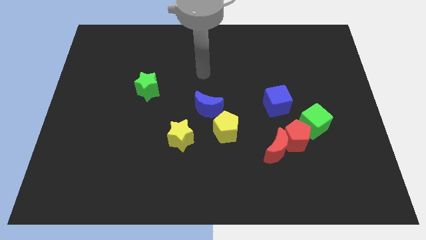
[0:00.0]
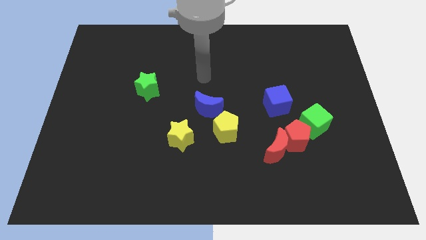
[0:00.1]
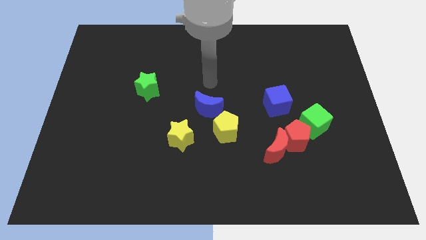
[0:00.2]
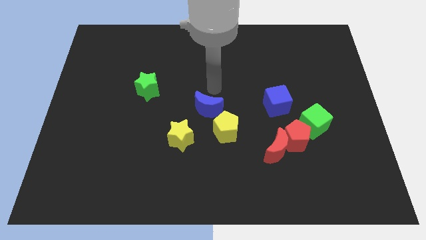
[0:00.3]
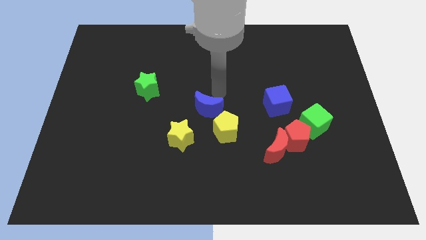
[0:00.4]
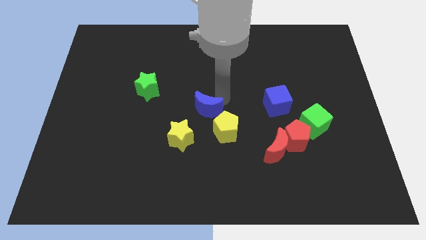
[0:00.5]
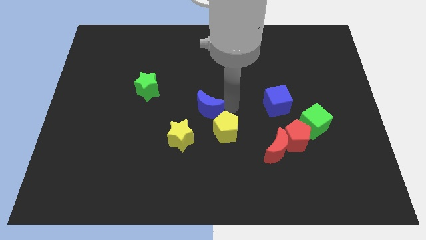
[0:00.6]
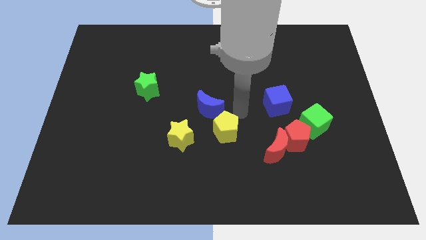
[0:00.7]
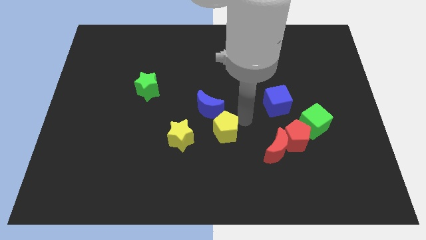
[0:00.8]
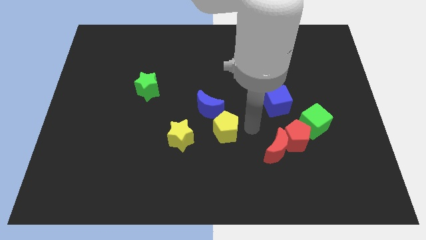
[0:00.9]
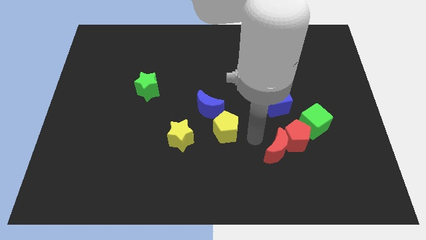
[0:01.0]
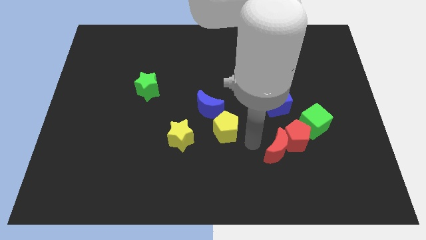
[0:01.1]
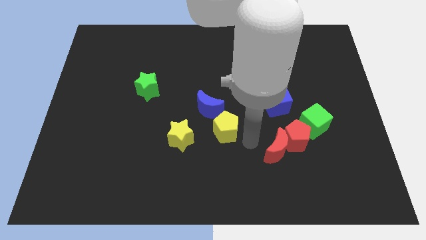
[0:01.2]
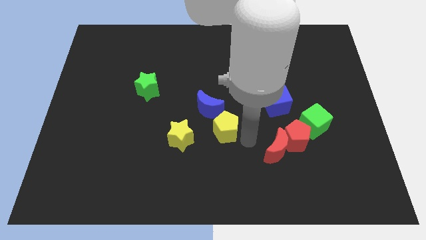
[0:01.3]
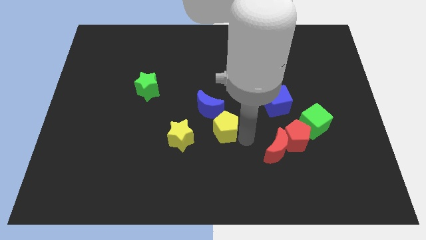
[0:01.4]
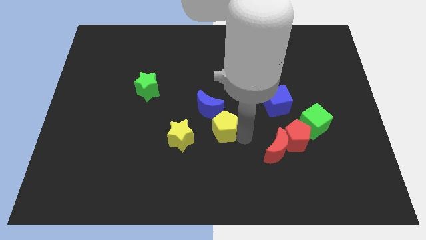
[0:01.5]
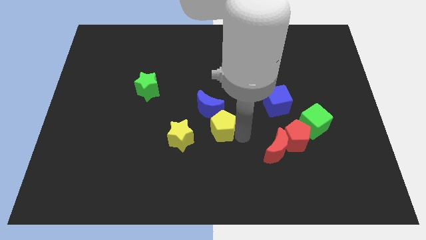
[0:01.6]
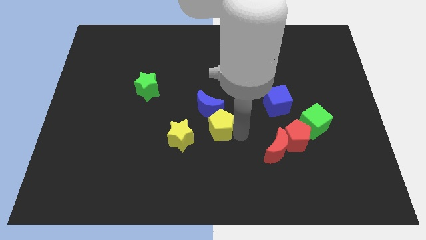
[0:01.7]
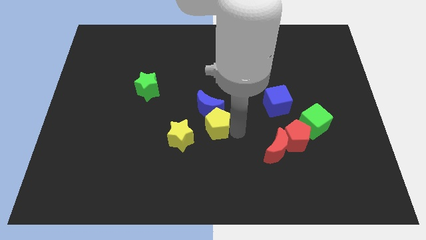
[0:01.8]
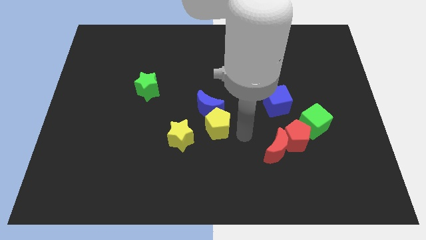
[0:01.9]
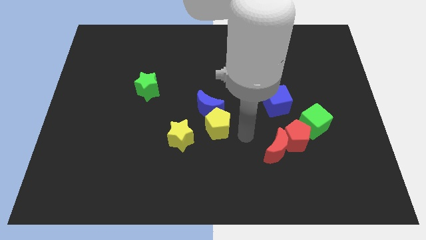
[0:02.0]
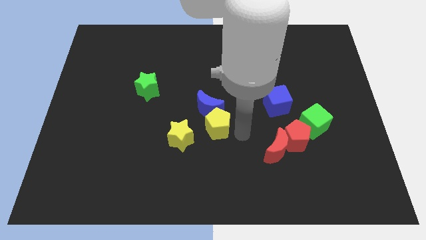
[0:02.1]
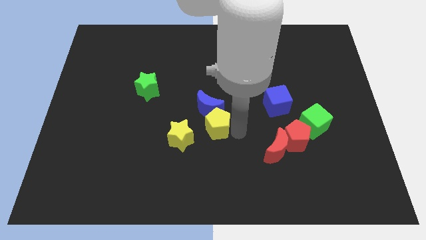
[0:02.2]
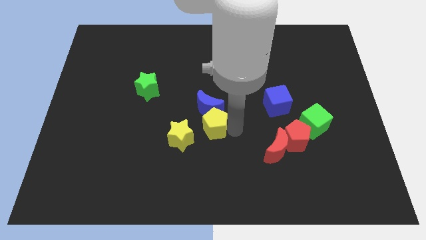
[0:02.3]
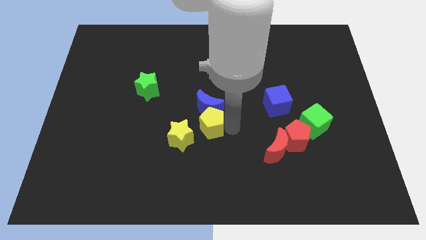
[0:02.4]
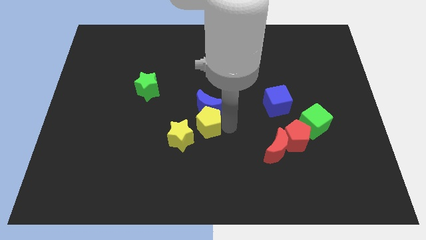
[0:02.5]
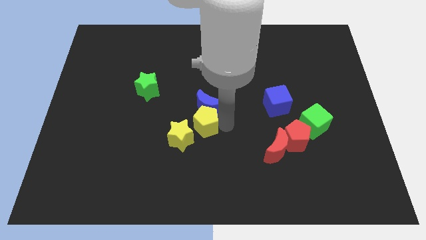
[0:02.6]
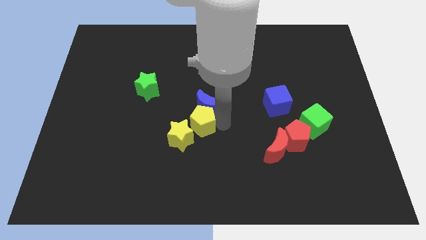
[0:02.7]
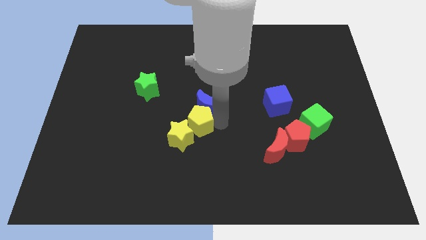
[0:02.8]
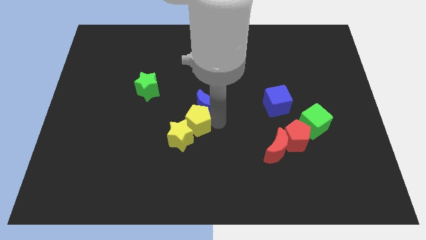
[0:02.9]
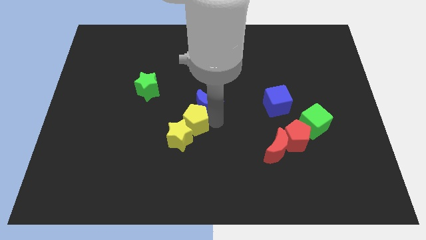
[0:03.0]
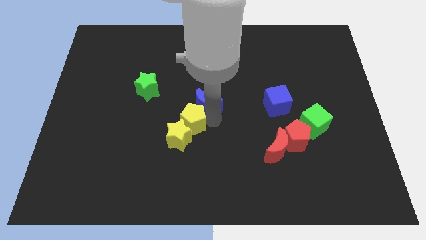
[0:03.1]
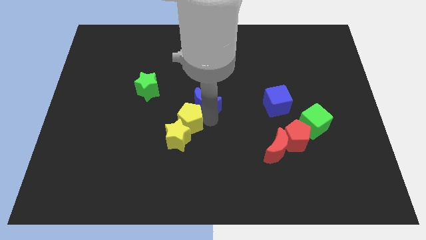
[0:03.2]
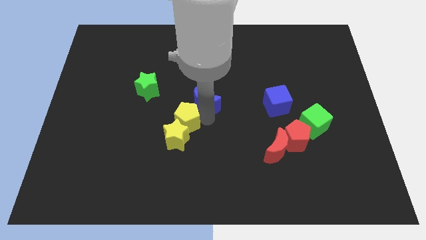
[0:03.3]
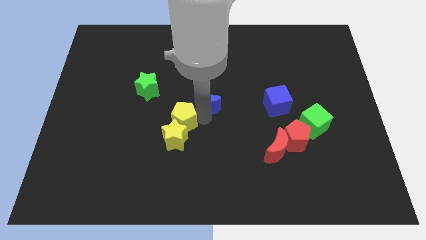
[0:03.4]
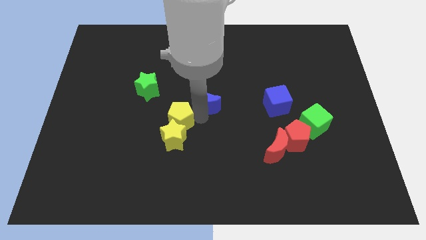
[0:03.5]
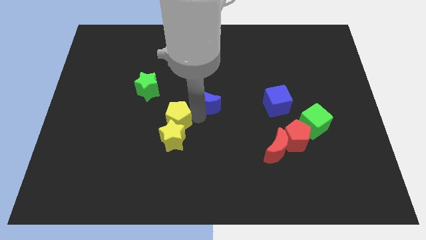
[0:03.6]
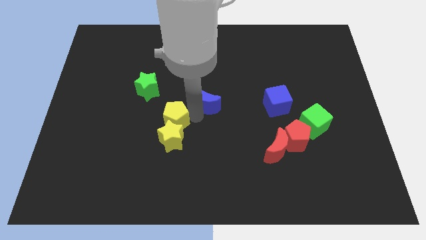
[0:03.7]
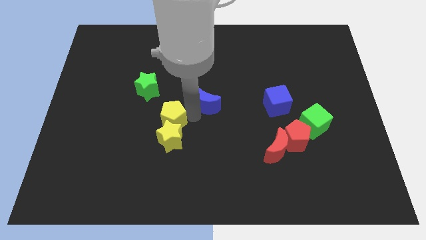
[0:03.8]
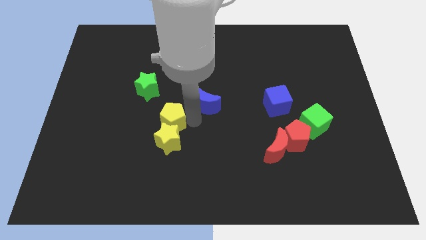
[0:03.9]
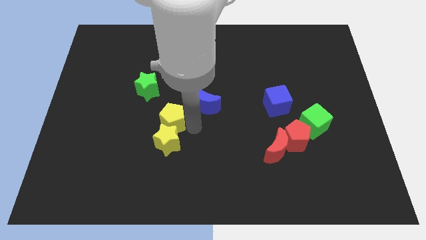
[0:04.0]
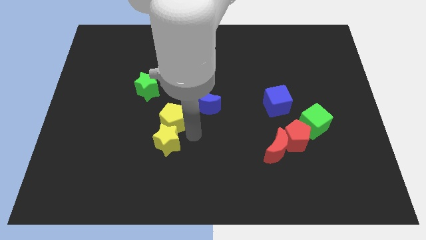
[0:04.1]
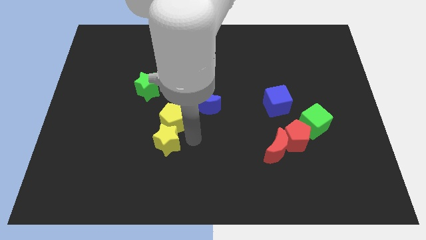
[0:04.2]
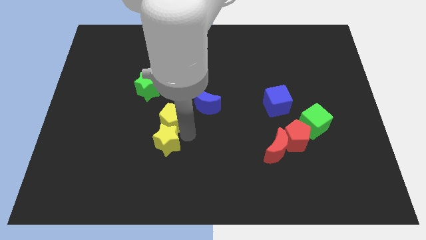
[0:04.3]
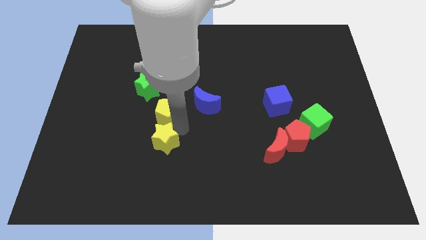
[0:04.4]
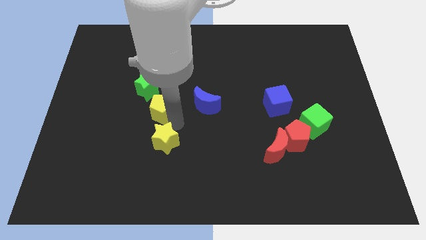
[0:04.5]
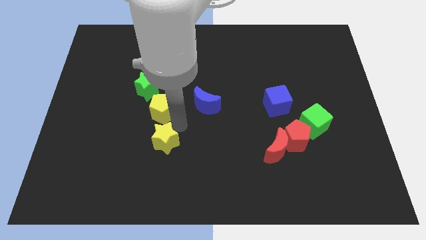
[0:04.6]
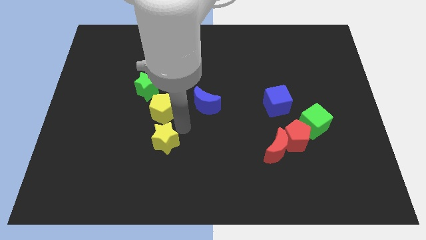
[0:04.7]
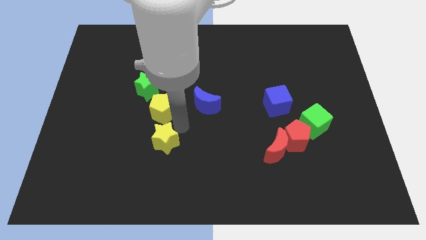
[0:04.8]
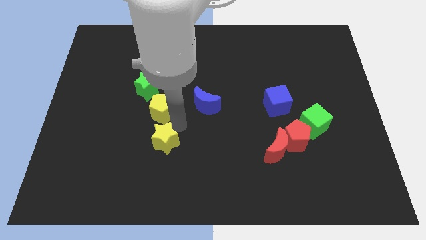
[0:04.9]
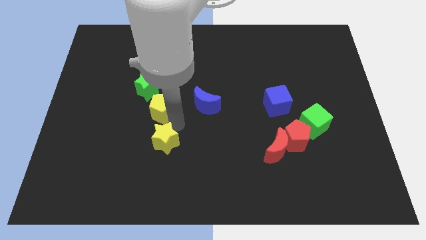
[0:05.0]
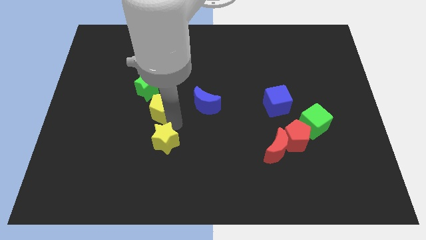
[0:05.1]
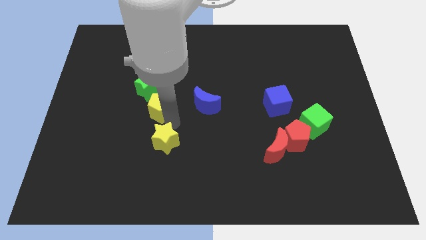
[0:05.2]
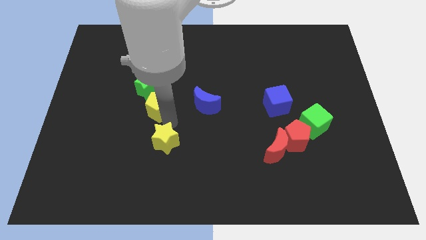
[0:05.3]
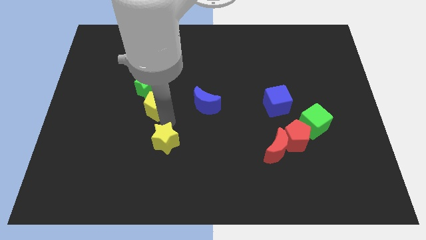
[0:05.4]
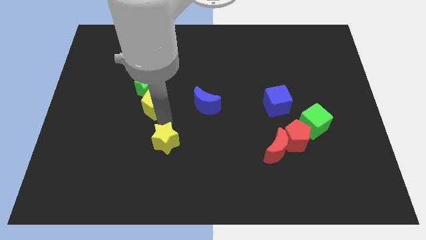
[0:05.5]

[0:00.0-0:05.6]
move the yellow pentagon towards the green star

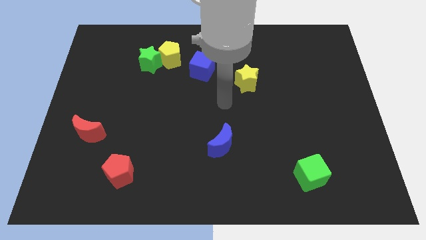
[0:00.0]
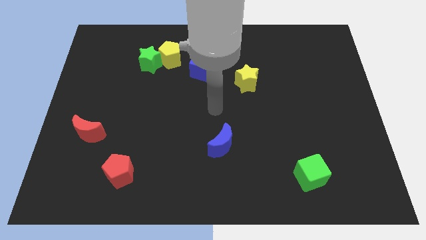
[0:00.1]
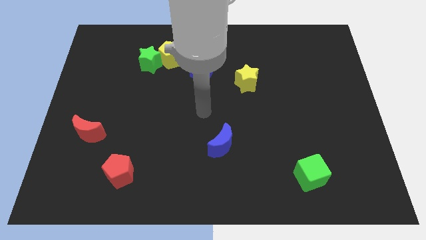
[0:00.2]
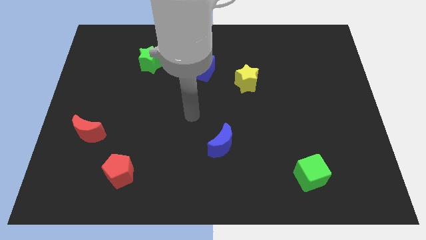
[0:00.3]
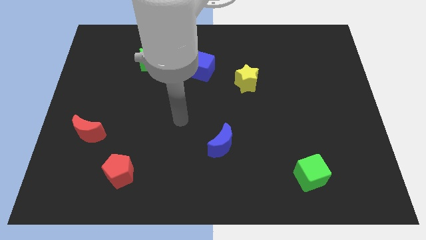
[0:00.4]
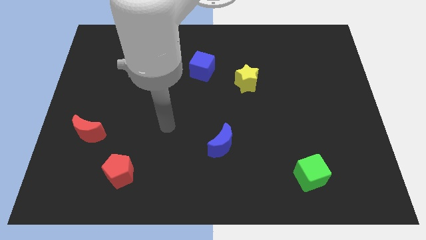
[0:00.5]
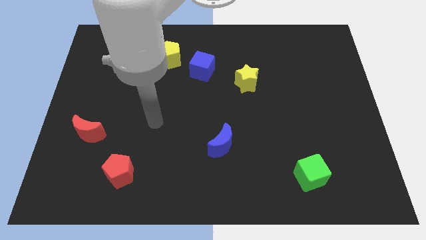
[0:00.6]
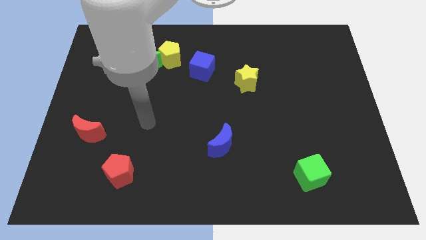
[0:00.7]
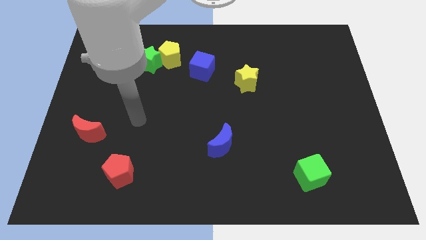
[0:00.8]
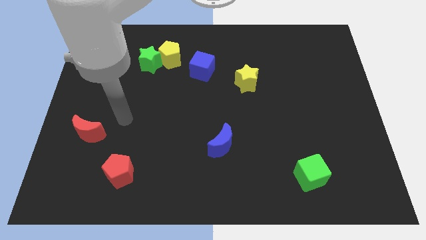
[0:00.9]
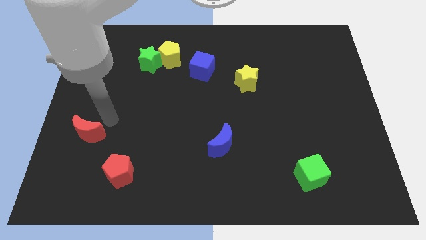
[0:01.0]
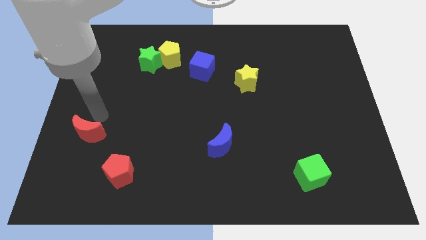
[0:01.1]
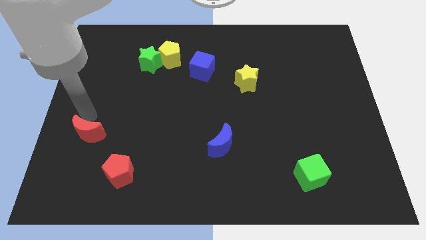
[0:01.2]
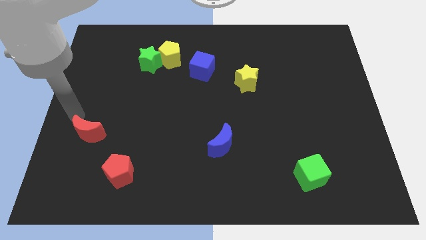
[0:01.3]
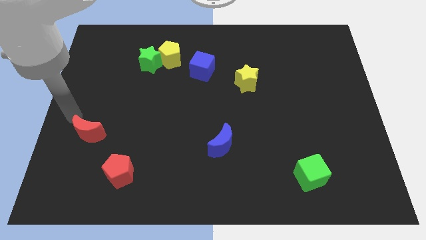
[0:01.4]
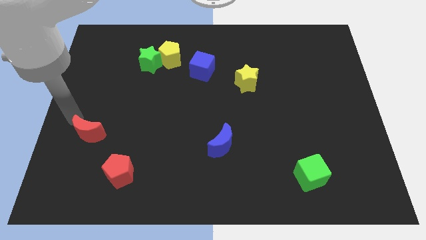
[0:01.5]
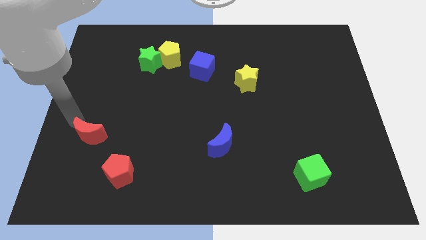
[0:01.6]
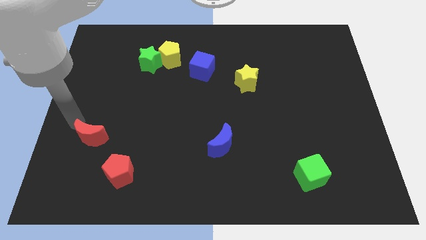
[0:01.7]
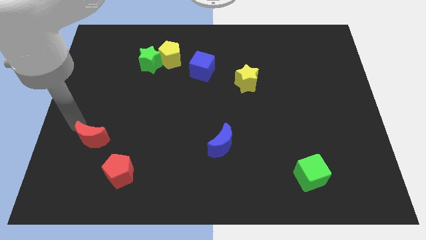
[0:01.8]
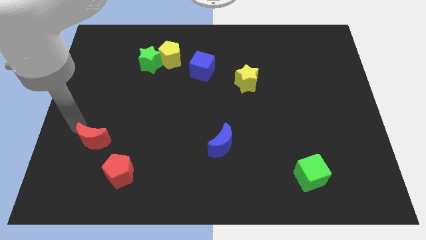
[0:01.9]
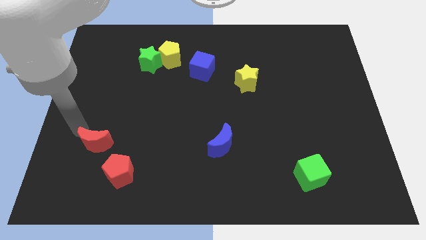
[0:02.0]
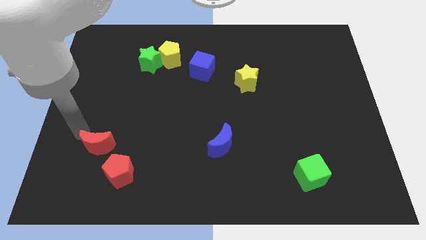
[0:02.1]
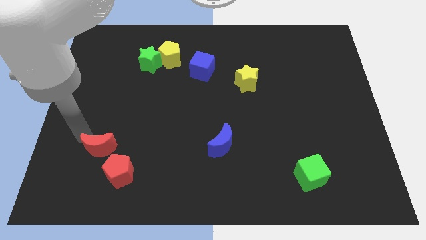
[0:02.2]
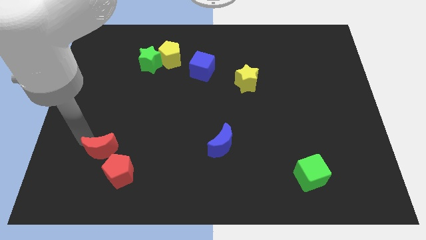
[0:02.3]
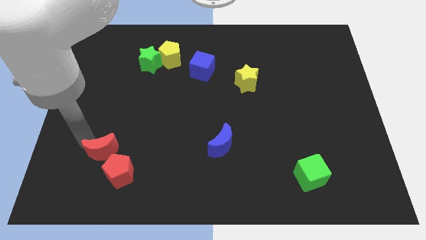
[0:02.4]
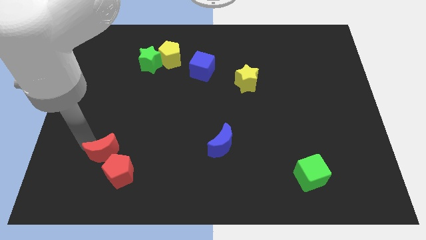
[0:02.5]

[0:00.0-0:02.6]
move the red moon next to the red pentagon
